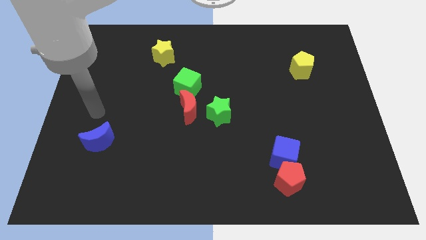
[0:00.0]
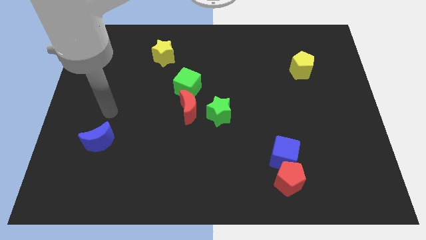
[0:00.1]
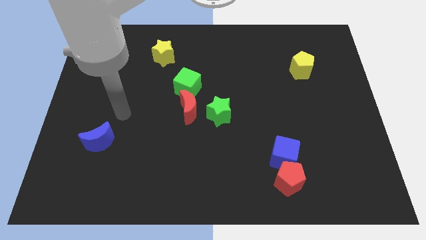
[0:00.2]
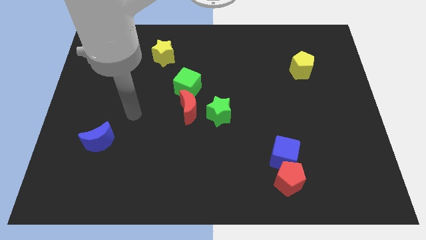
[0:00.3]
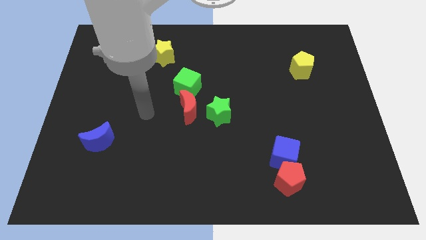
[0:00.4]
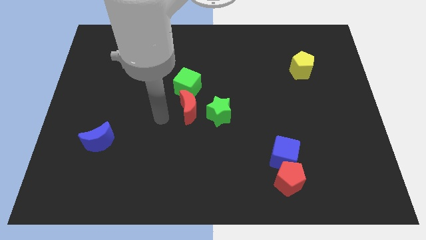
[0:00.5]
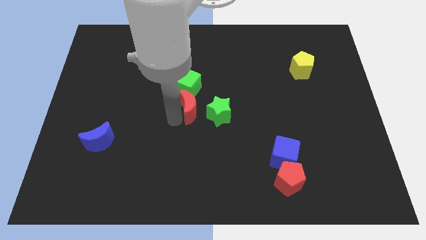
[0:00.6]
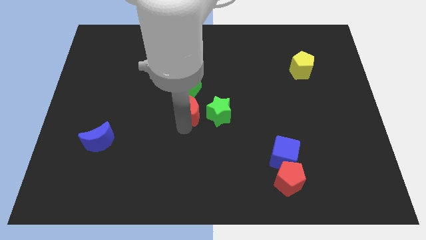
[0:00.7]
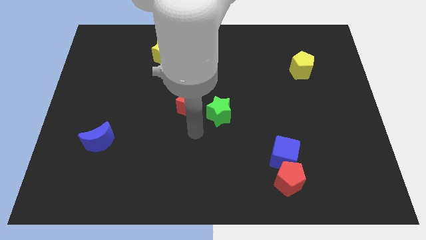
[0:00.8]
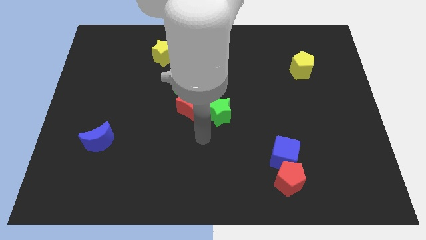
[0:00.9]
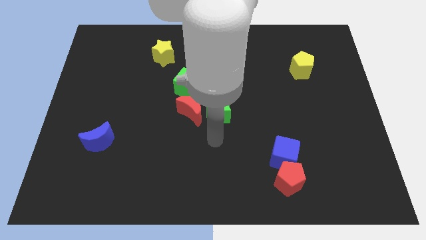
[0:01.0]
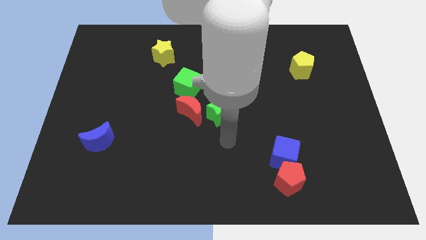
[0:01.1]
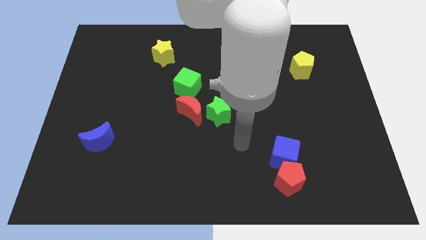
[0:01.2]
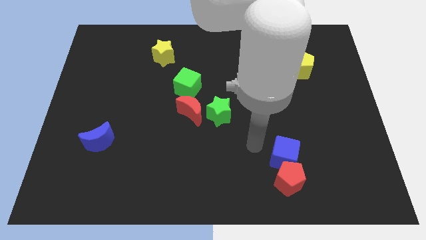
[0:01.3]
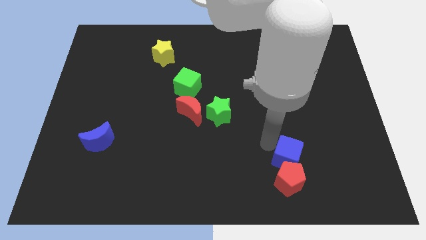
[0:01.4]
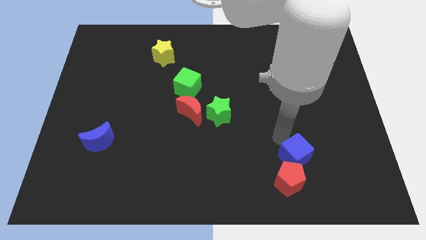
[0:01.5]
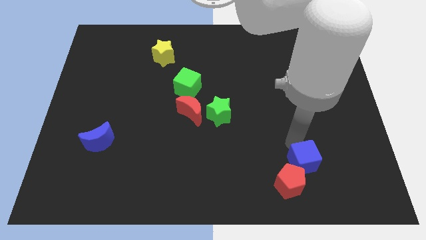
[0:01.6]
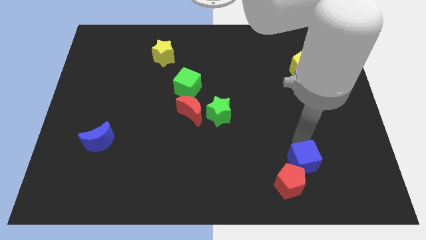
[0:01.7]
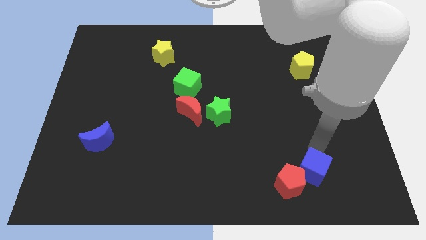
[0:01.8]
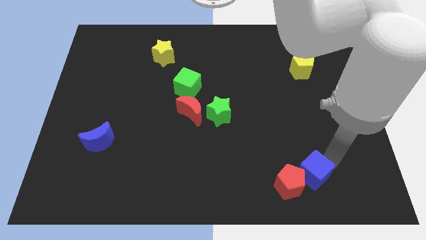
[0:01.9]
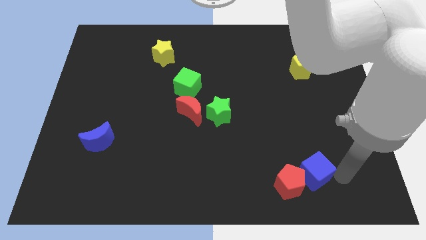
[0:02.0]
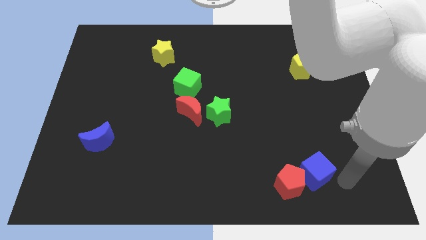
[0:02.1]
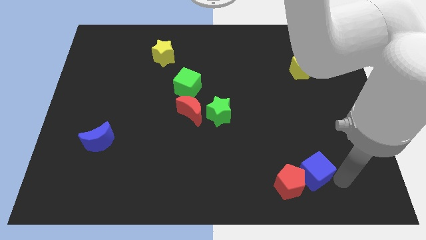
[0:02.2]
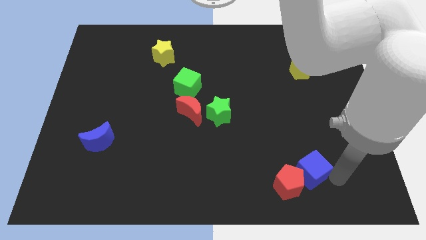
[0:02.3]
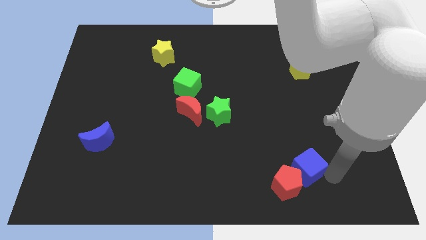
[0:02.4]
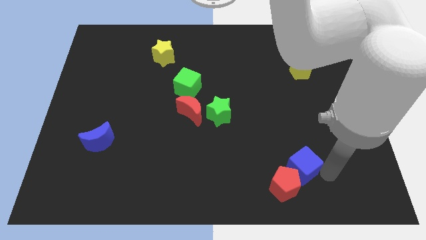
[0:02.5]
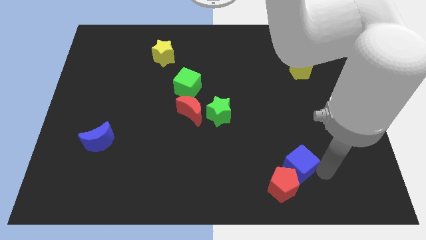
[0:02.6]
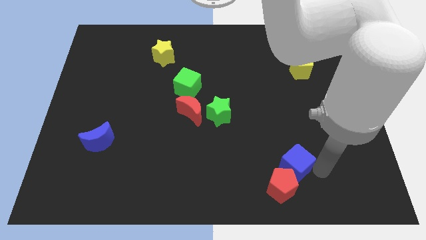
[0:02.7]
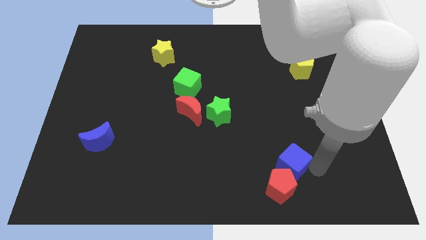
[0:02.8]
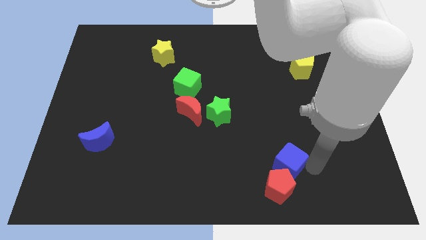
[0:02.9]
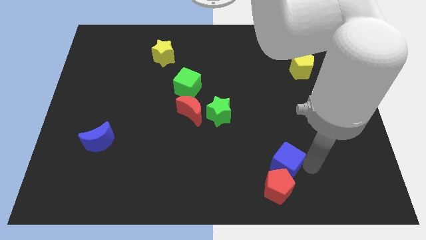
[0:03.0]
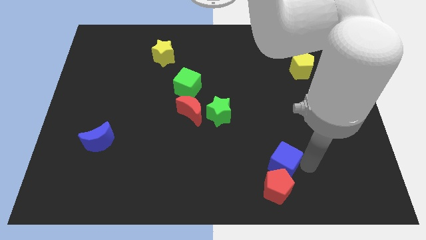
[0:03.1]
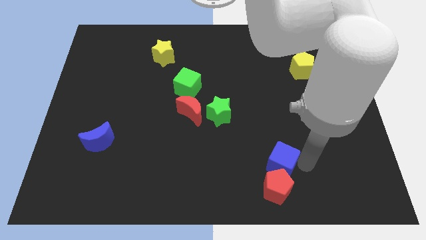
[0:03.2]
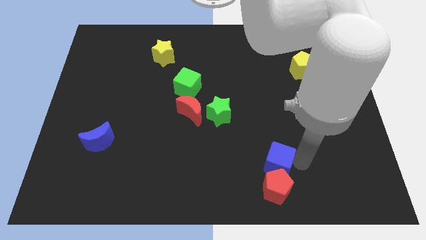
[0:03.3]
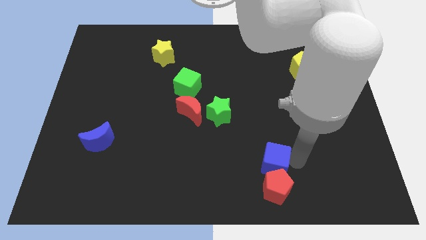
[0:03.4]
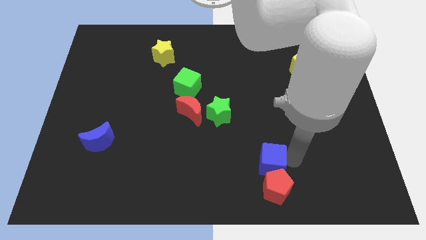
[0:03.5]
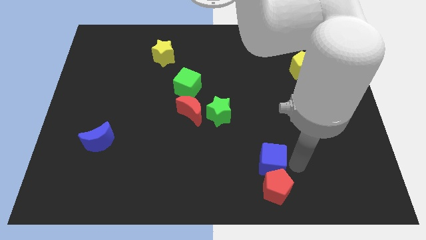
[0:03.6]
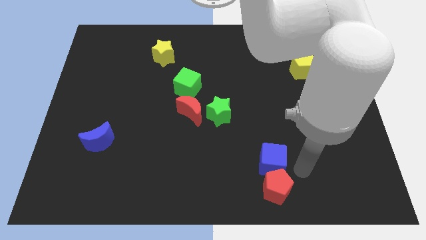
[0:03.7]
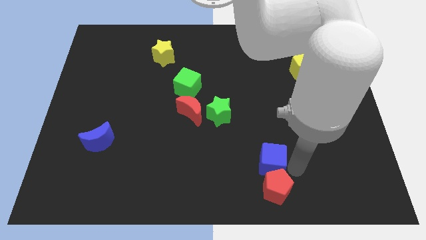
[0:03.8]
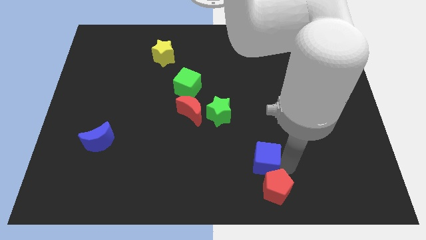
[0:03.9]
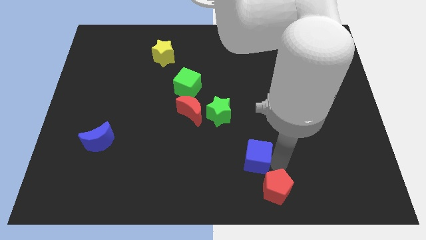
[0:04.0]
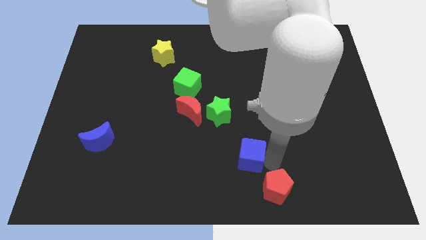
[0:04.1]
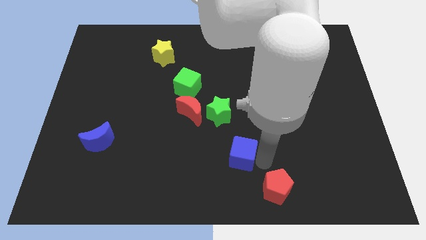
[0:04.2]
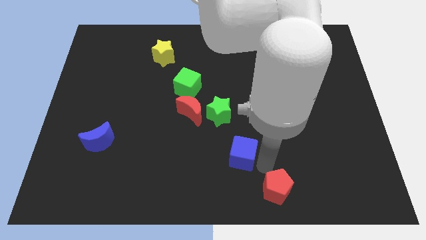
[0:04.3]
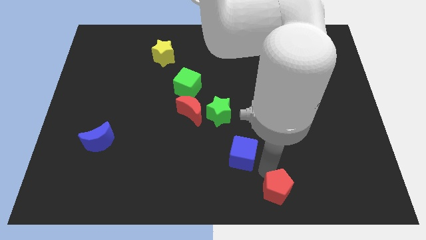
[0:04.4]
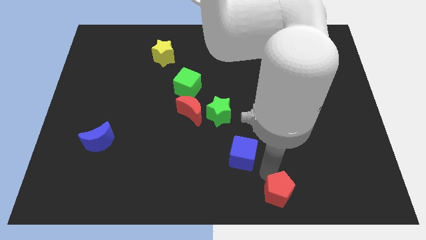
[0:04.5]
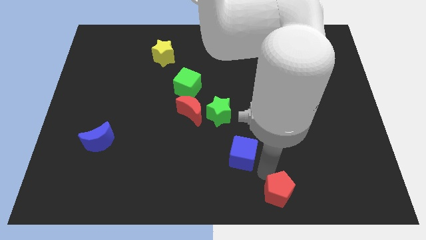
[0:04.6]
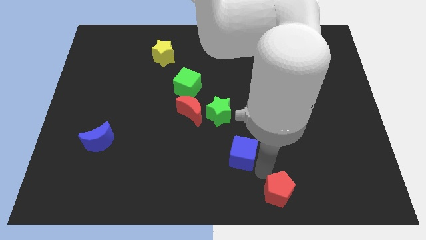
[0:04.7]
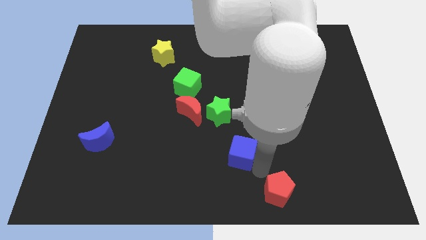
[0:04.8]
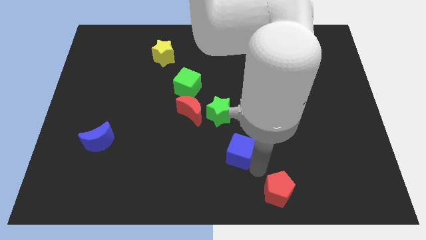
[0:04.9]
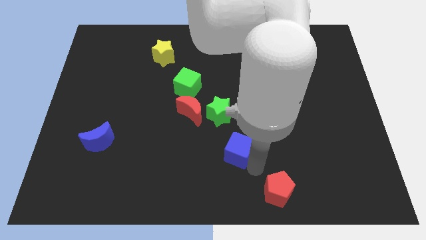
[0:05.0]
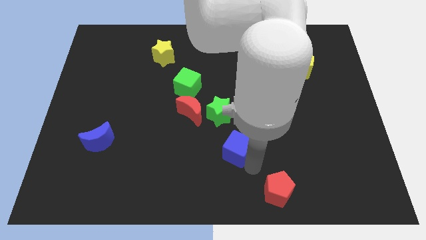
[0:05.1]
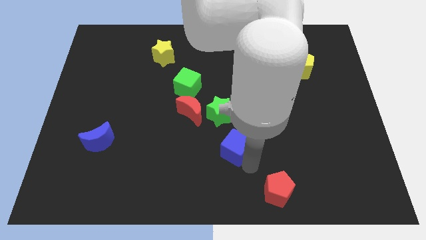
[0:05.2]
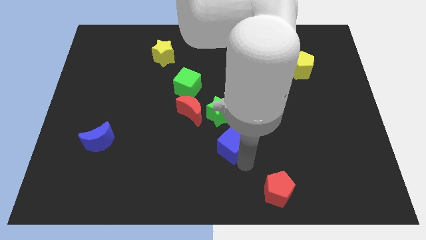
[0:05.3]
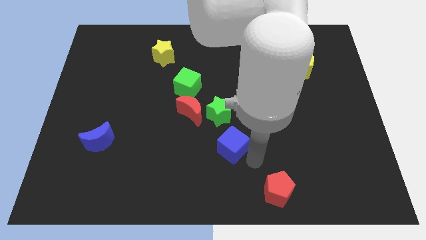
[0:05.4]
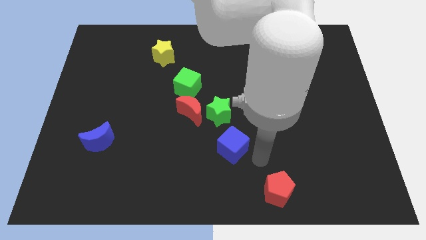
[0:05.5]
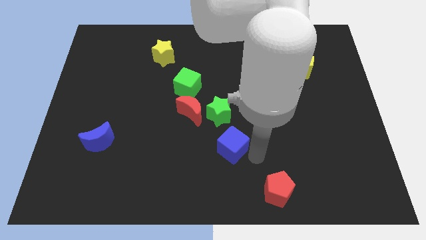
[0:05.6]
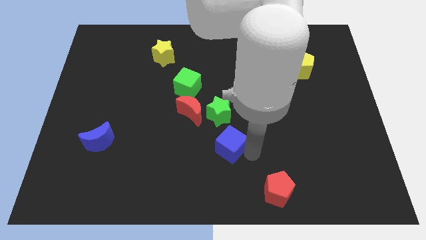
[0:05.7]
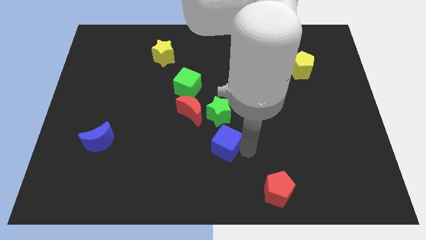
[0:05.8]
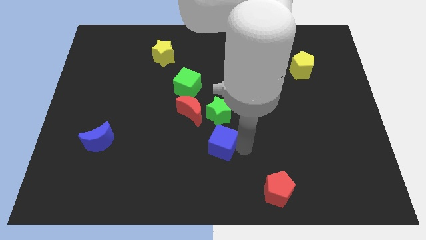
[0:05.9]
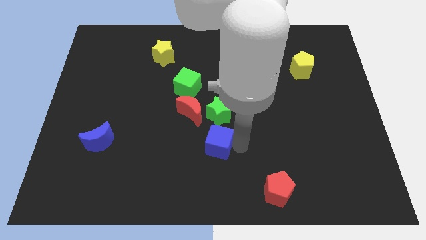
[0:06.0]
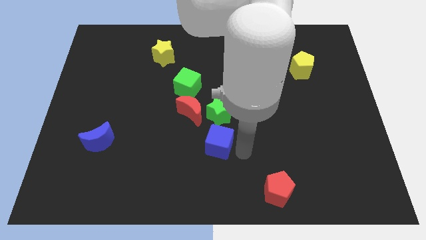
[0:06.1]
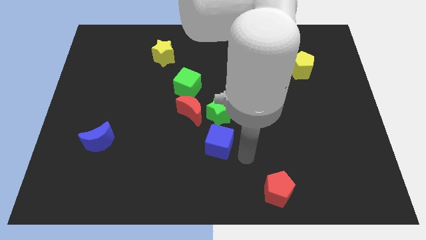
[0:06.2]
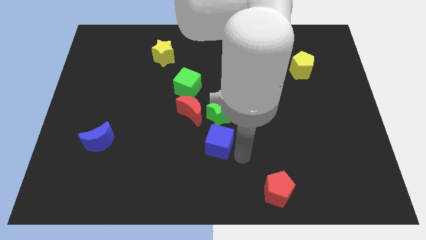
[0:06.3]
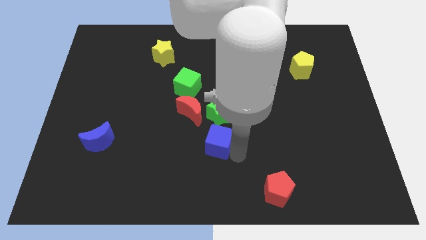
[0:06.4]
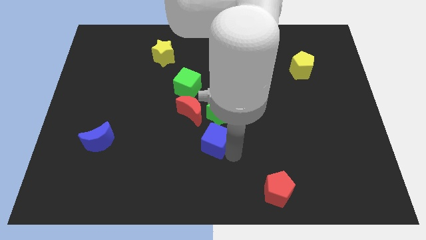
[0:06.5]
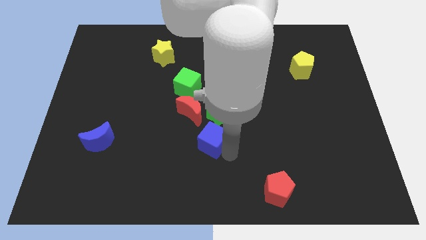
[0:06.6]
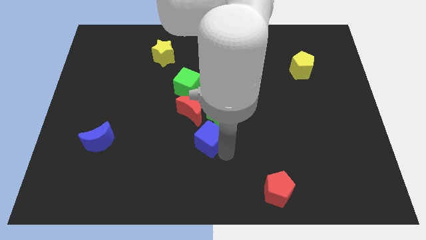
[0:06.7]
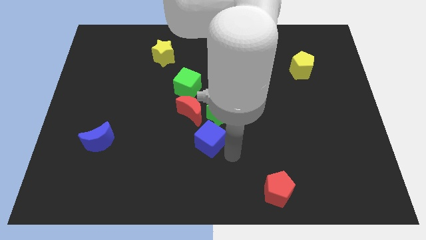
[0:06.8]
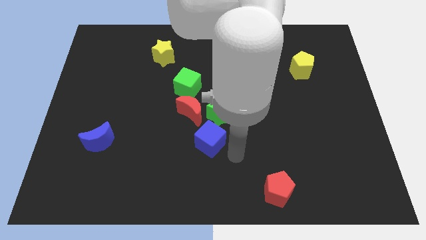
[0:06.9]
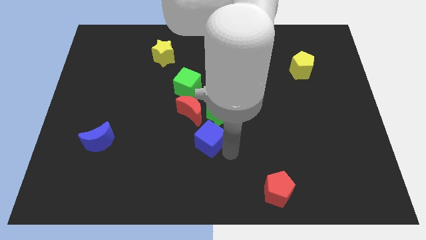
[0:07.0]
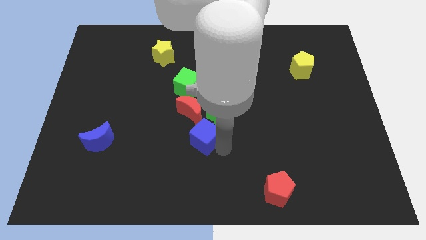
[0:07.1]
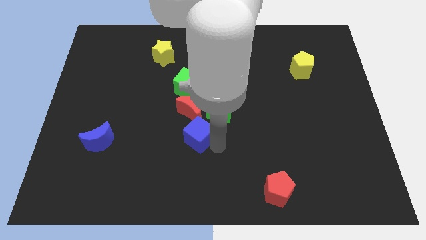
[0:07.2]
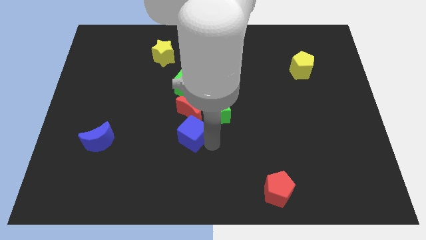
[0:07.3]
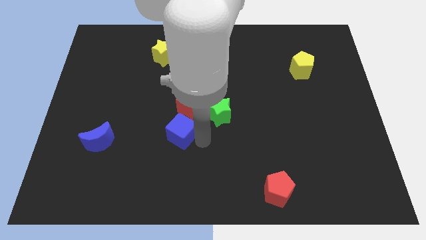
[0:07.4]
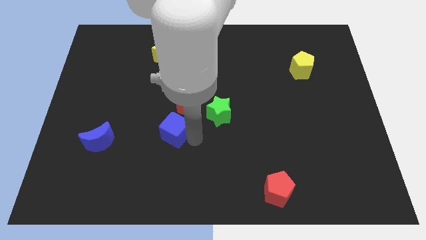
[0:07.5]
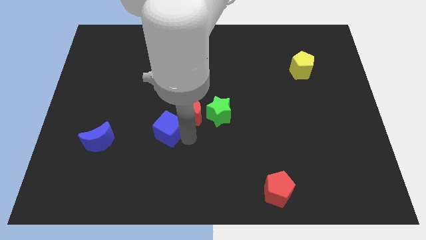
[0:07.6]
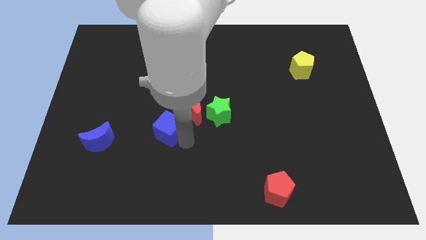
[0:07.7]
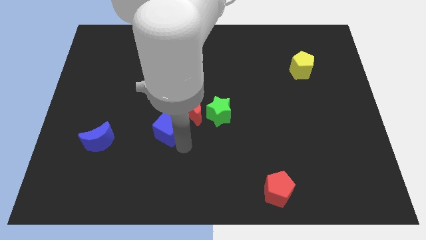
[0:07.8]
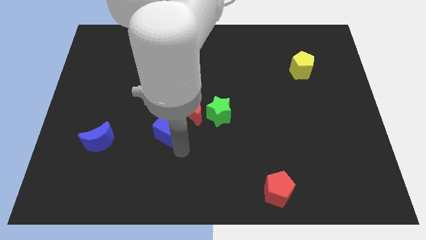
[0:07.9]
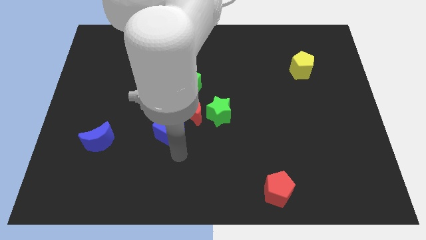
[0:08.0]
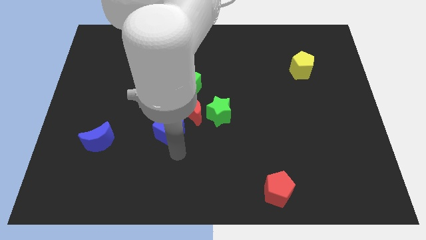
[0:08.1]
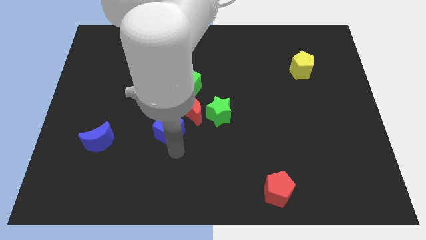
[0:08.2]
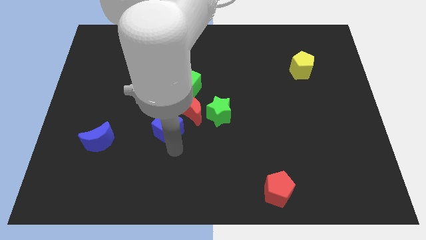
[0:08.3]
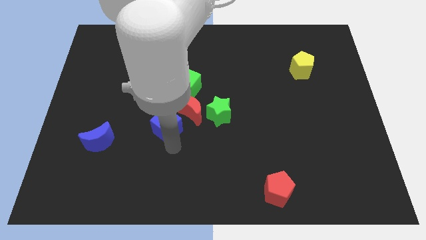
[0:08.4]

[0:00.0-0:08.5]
push the blue cube to the left side of the red moon
